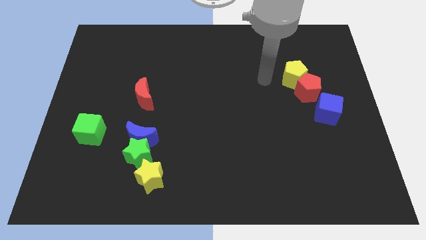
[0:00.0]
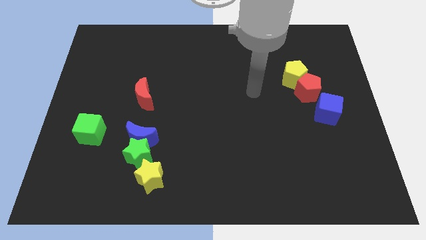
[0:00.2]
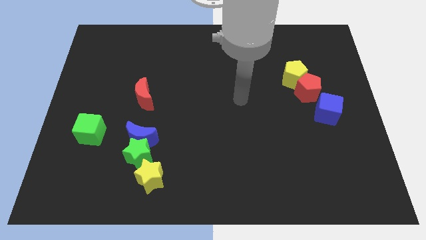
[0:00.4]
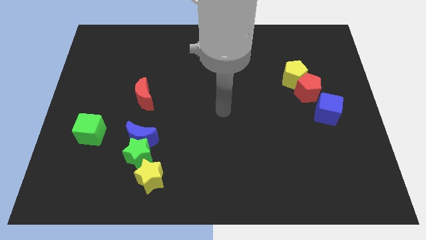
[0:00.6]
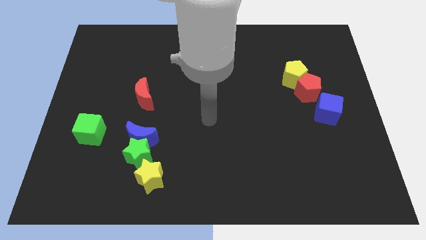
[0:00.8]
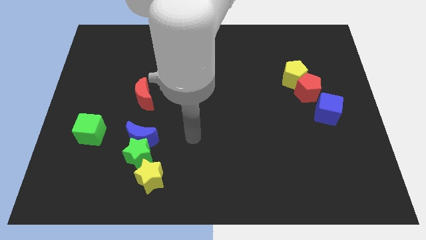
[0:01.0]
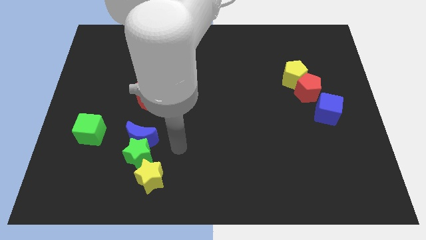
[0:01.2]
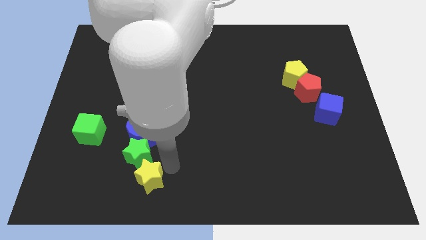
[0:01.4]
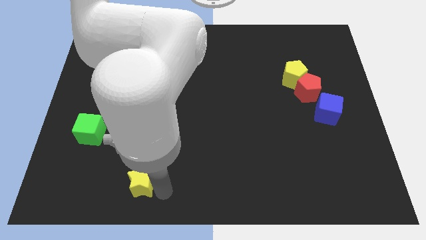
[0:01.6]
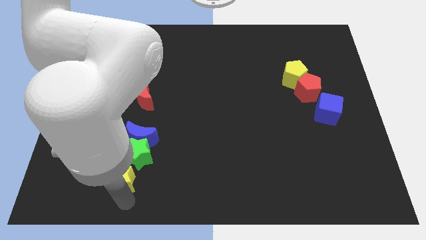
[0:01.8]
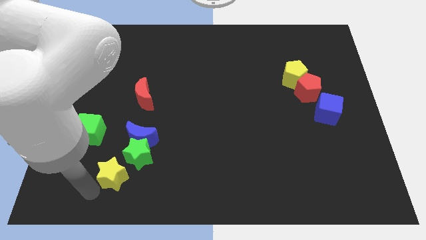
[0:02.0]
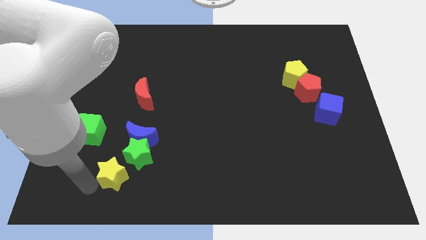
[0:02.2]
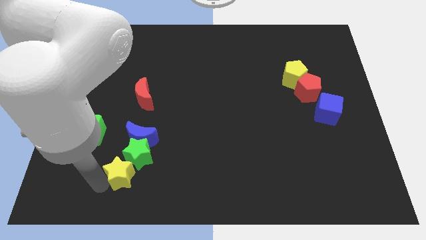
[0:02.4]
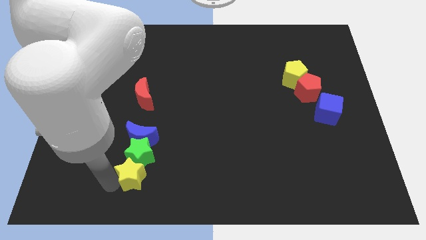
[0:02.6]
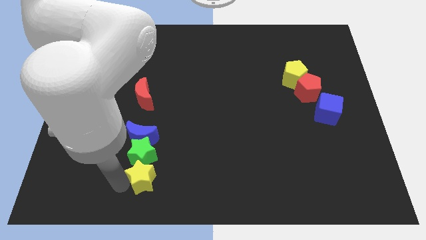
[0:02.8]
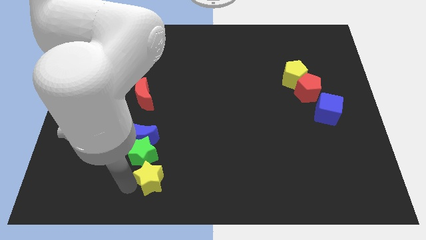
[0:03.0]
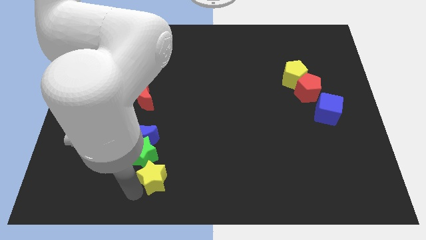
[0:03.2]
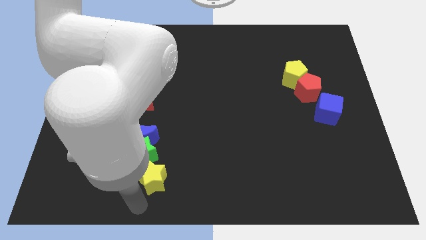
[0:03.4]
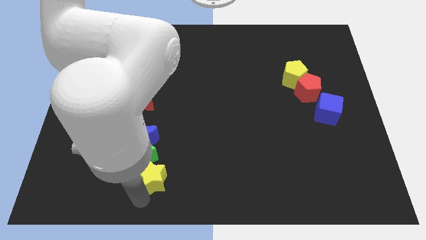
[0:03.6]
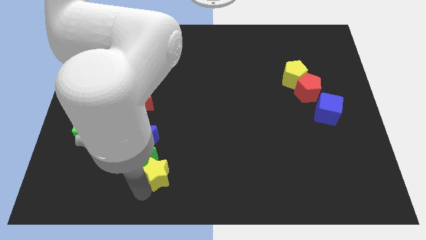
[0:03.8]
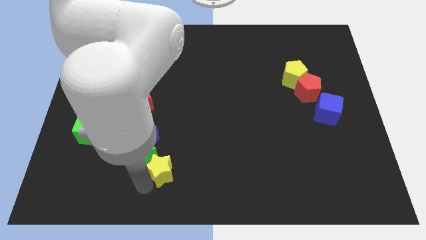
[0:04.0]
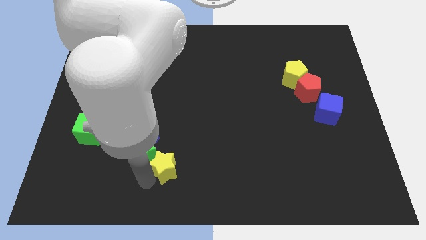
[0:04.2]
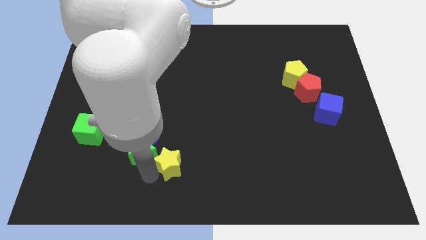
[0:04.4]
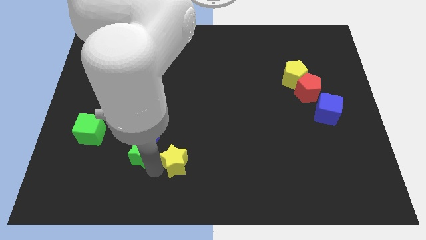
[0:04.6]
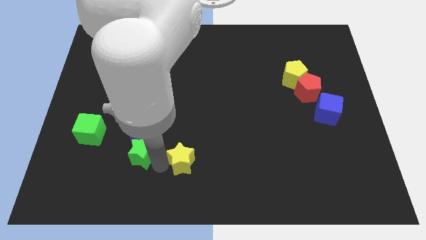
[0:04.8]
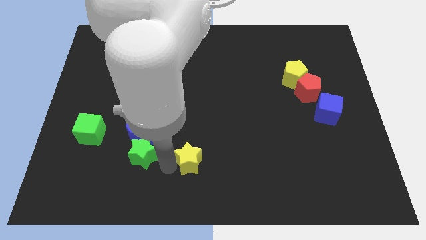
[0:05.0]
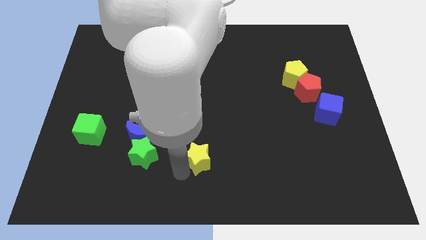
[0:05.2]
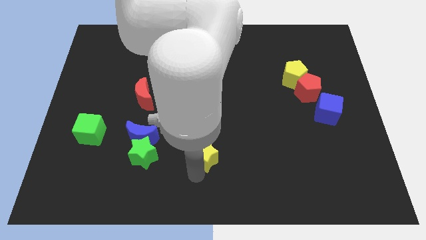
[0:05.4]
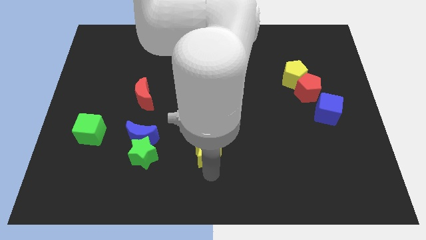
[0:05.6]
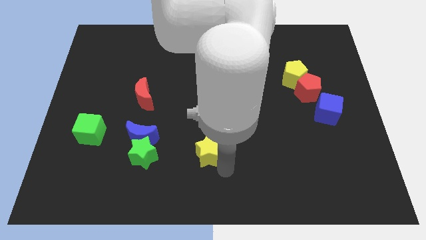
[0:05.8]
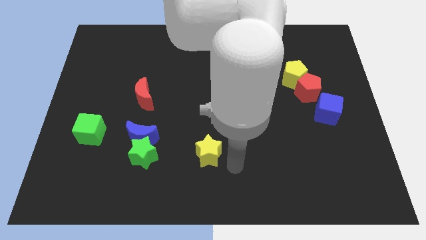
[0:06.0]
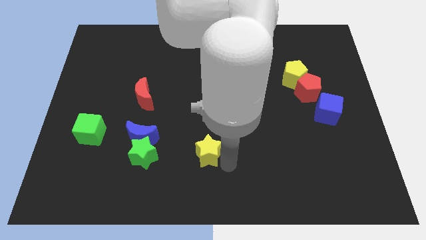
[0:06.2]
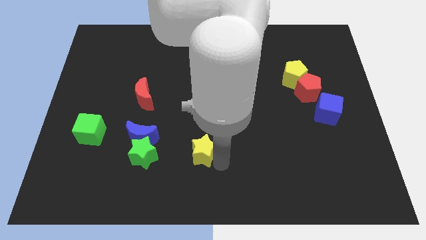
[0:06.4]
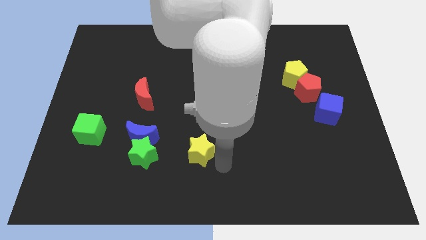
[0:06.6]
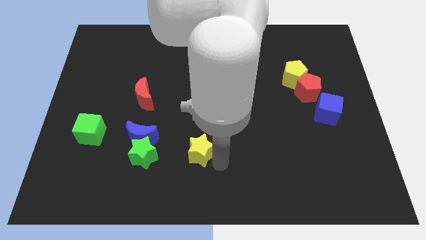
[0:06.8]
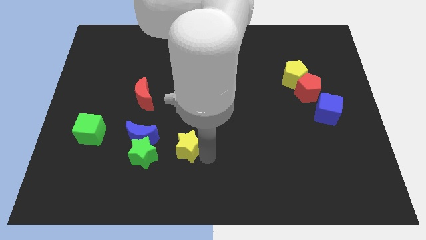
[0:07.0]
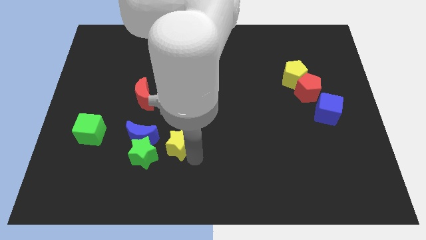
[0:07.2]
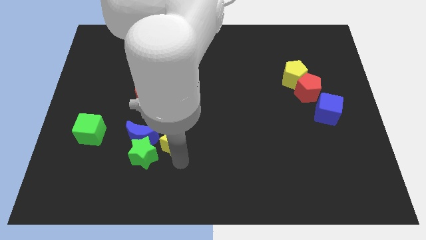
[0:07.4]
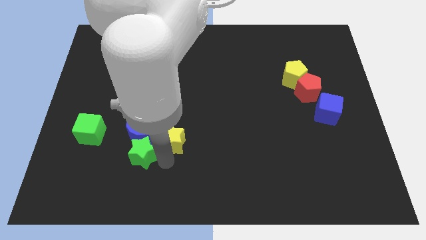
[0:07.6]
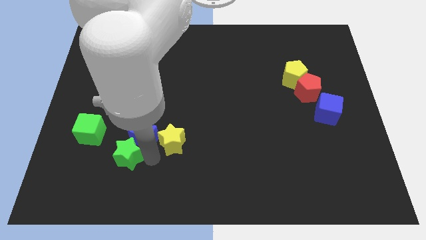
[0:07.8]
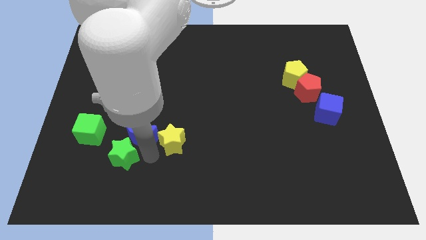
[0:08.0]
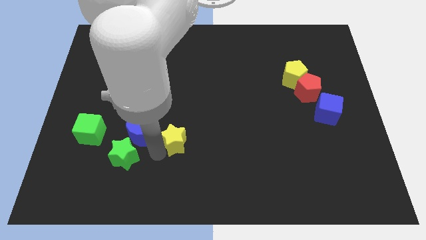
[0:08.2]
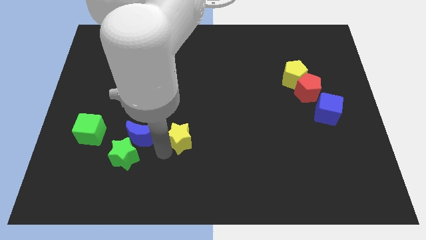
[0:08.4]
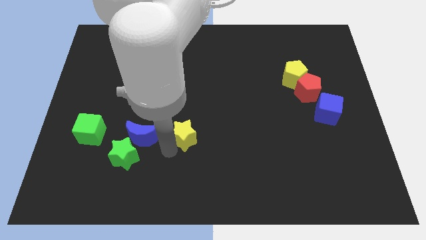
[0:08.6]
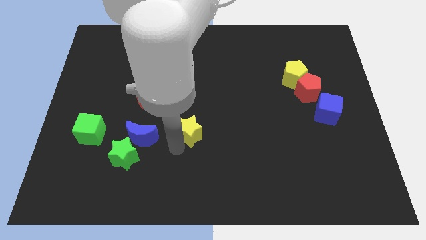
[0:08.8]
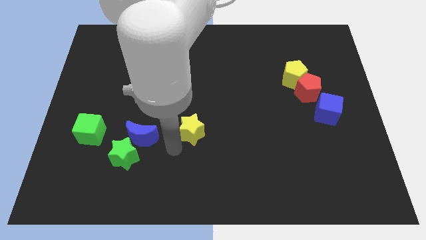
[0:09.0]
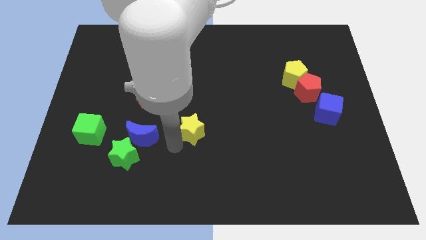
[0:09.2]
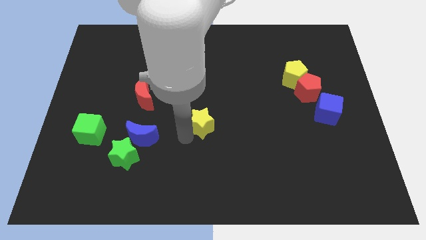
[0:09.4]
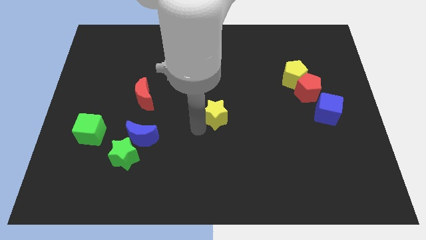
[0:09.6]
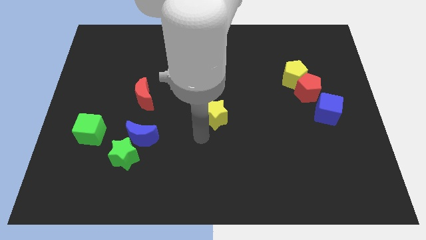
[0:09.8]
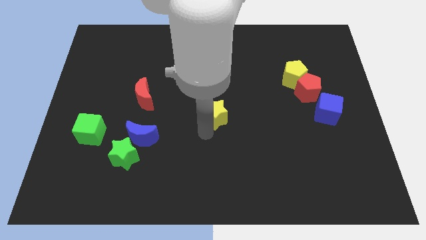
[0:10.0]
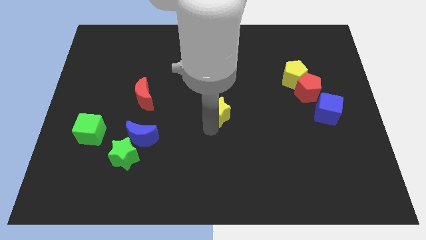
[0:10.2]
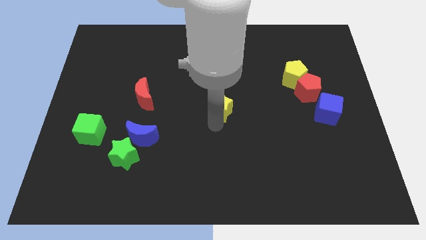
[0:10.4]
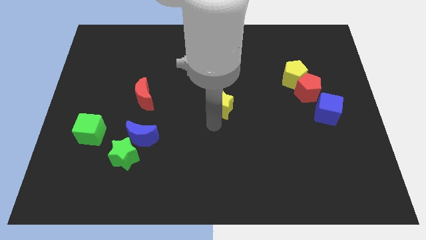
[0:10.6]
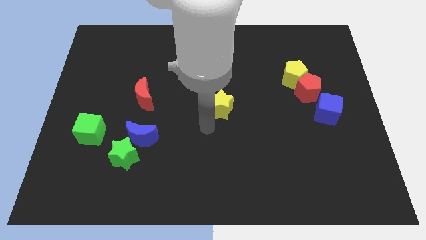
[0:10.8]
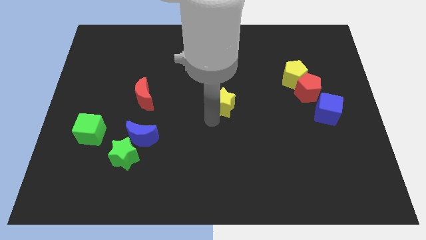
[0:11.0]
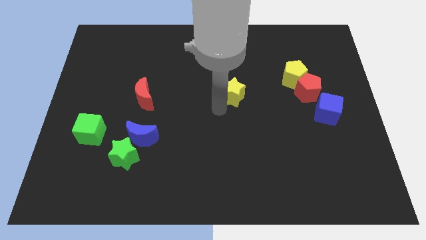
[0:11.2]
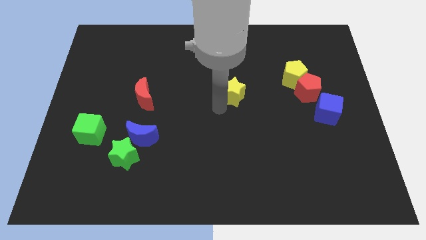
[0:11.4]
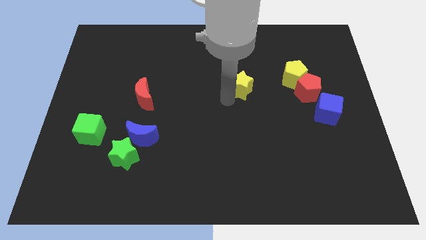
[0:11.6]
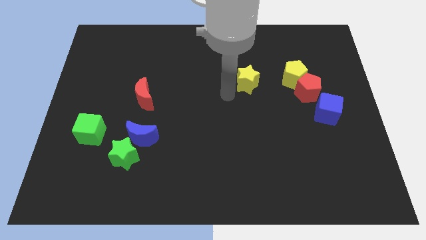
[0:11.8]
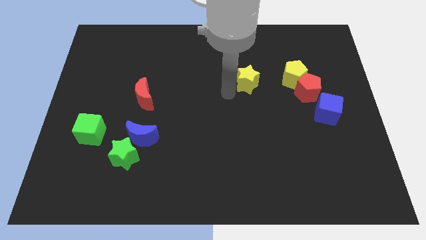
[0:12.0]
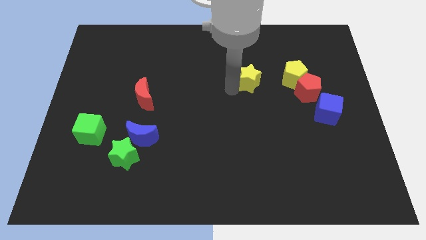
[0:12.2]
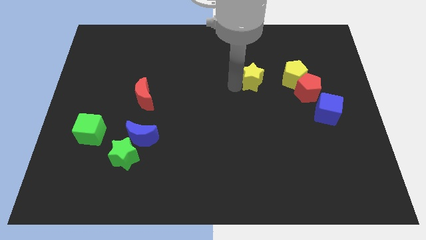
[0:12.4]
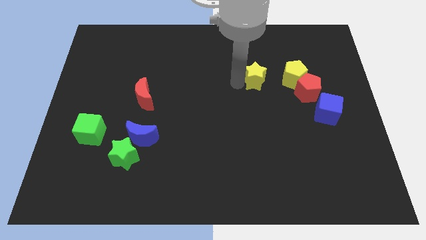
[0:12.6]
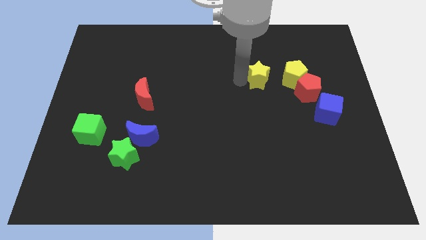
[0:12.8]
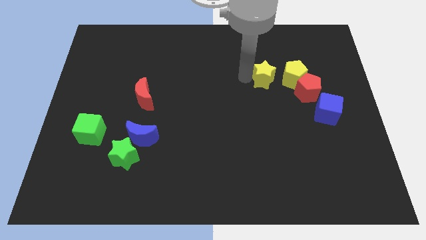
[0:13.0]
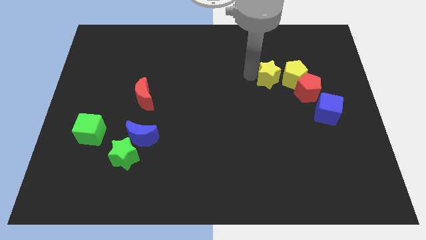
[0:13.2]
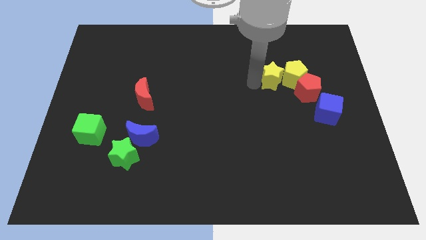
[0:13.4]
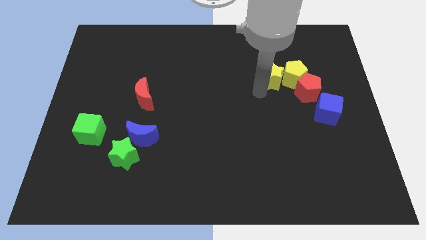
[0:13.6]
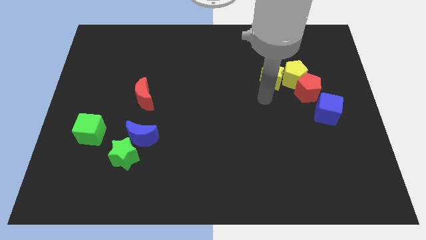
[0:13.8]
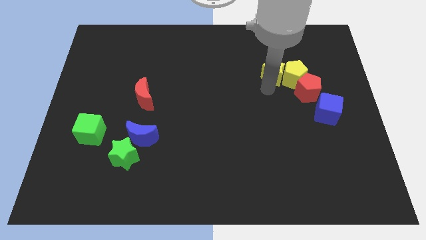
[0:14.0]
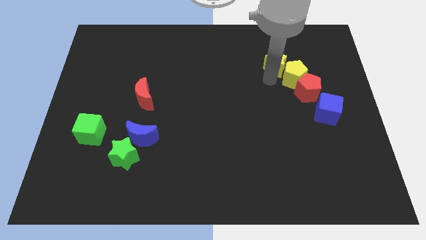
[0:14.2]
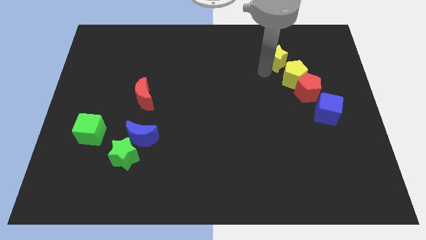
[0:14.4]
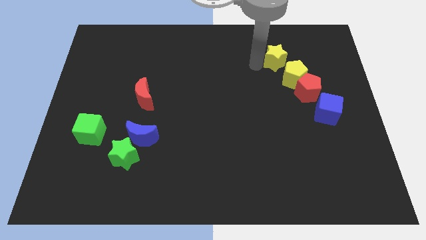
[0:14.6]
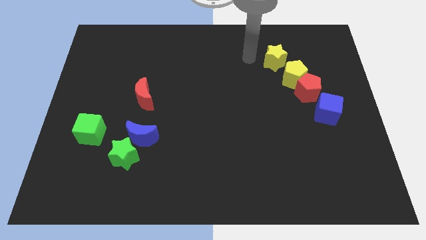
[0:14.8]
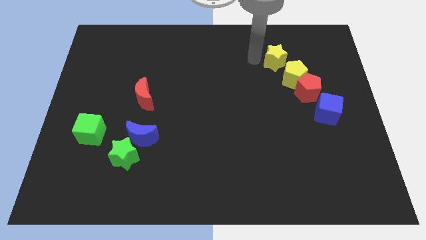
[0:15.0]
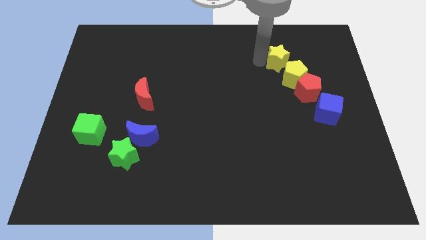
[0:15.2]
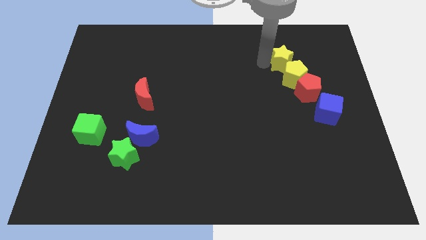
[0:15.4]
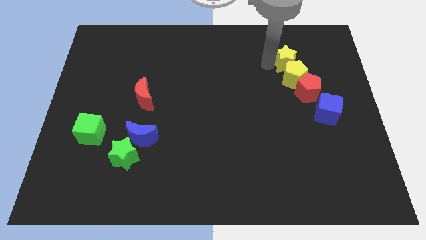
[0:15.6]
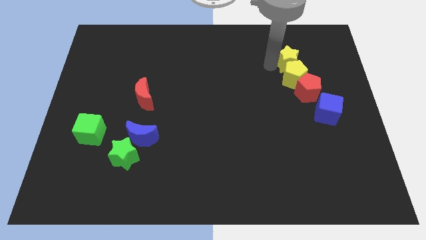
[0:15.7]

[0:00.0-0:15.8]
push the yellow star to the top right side of the yellow pentagon
